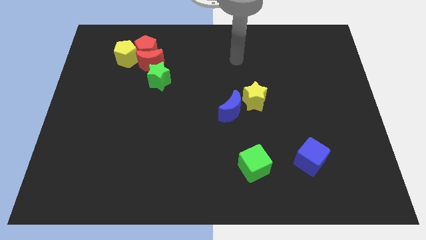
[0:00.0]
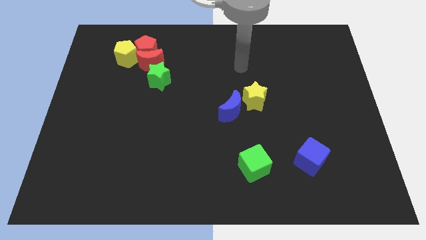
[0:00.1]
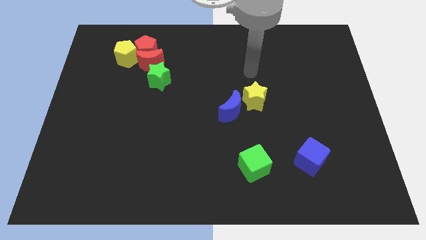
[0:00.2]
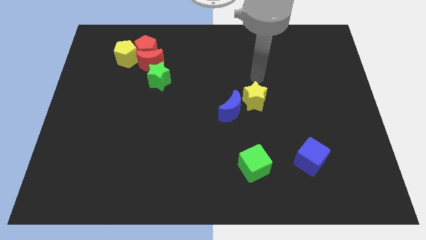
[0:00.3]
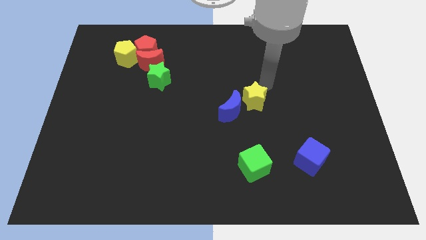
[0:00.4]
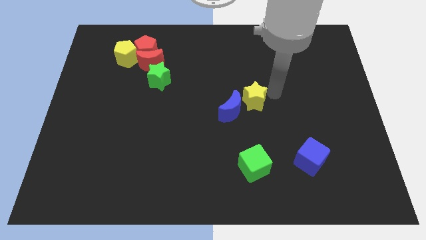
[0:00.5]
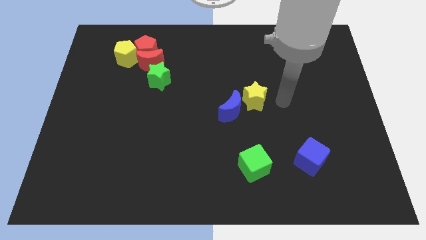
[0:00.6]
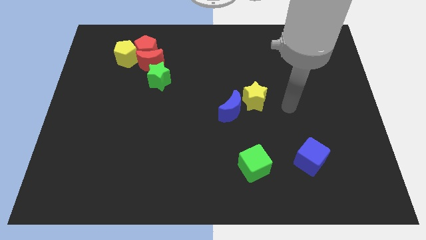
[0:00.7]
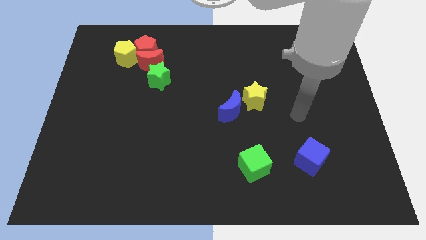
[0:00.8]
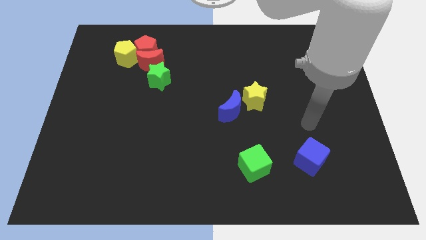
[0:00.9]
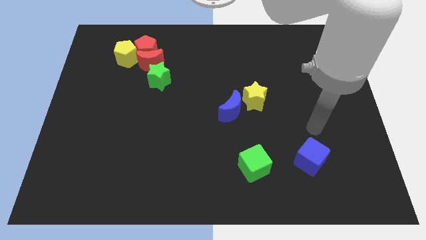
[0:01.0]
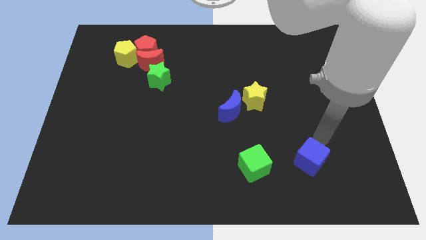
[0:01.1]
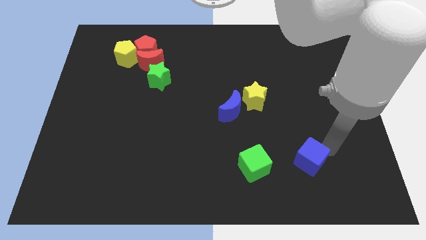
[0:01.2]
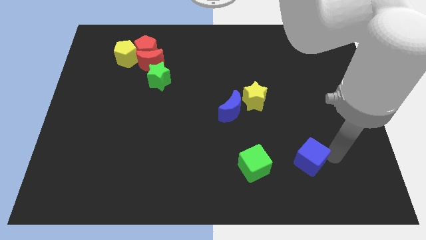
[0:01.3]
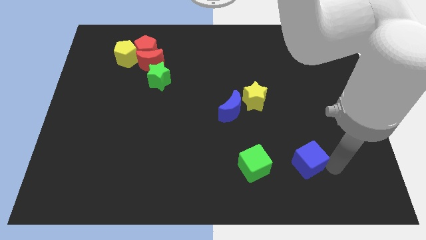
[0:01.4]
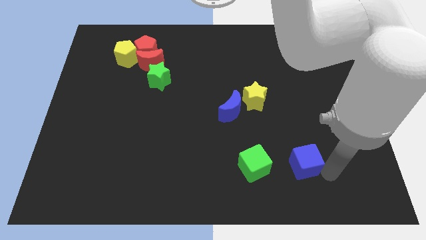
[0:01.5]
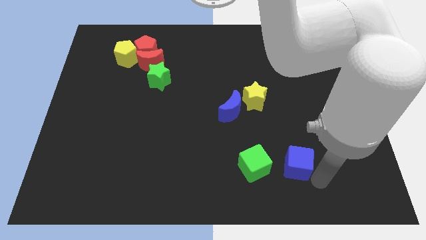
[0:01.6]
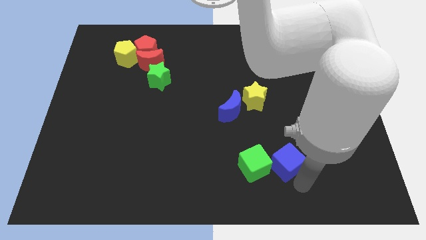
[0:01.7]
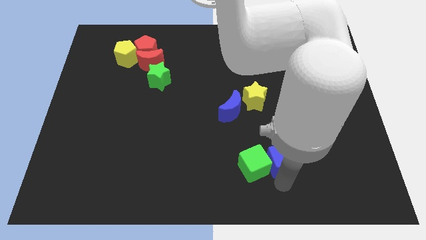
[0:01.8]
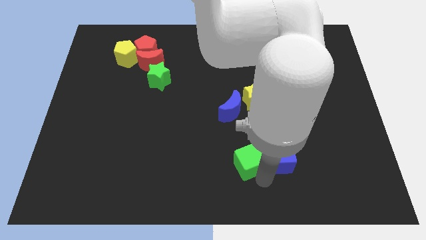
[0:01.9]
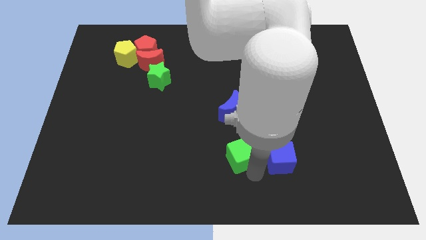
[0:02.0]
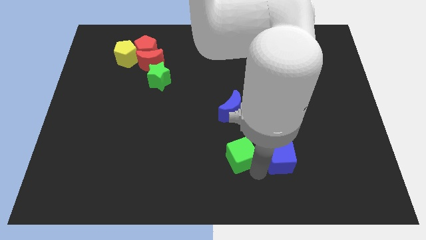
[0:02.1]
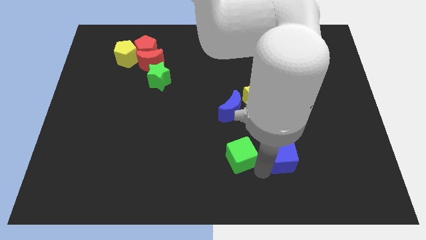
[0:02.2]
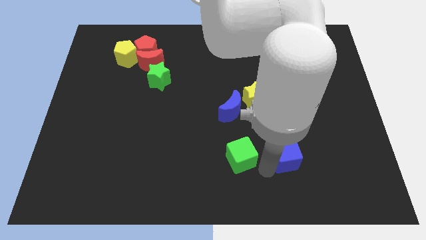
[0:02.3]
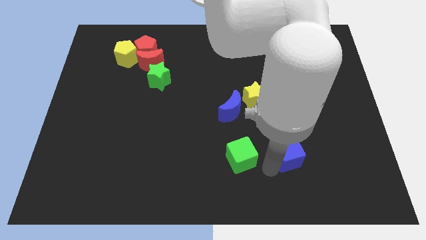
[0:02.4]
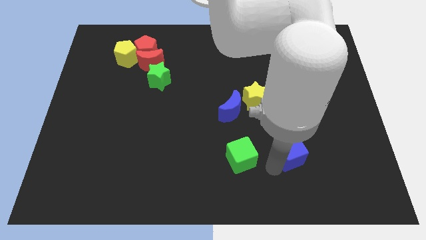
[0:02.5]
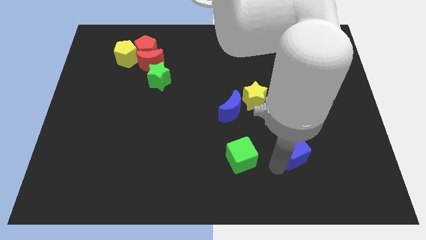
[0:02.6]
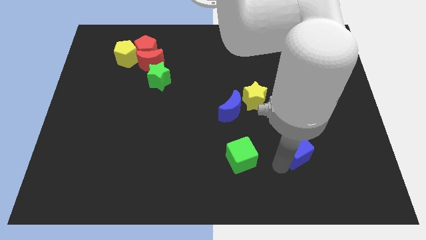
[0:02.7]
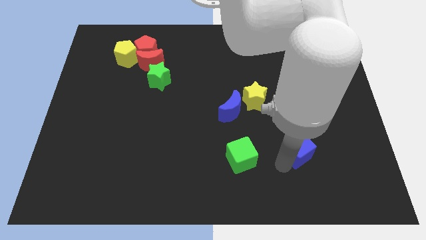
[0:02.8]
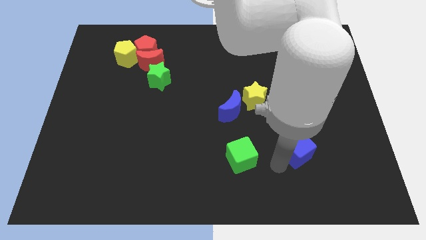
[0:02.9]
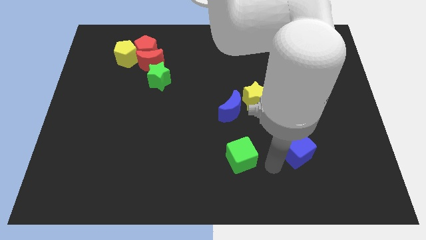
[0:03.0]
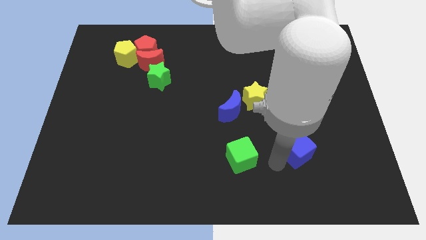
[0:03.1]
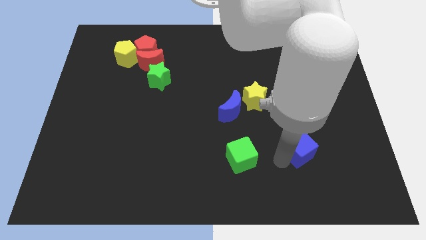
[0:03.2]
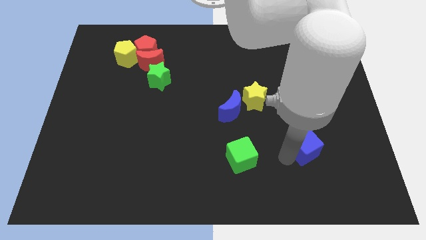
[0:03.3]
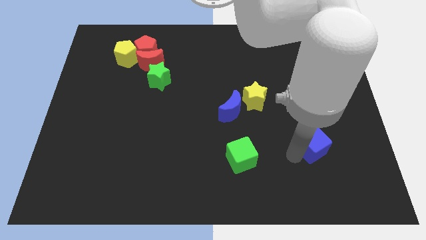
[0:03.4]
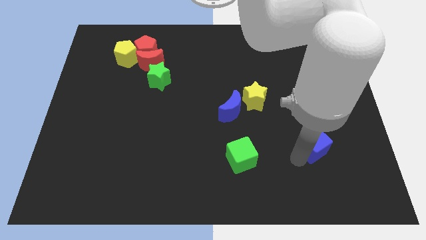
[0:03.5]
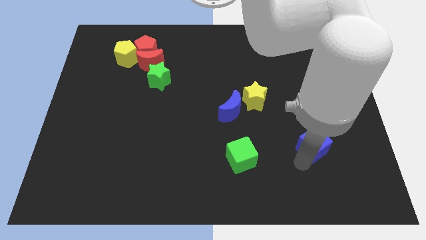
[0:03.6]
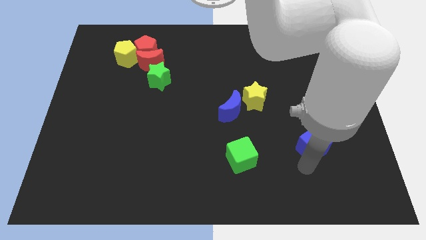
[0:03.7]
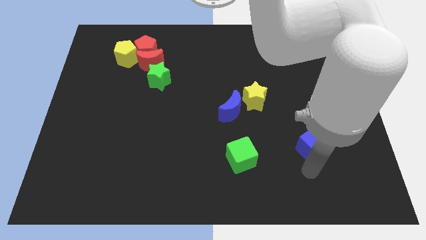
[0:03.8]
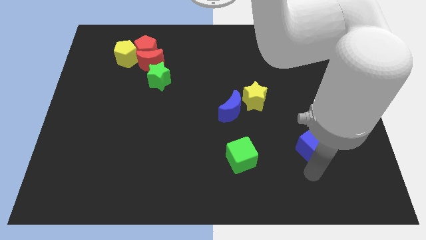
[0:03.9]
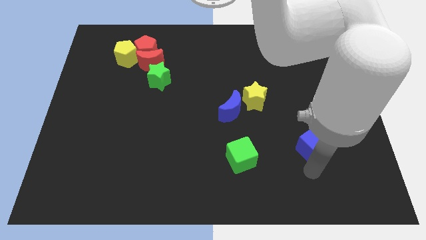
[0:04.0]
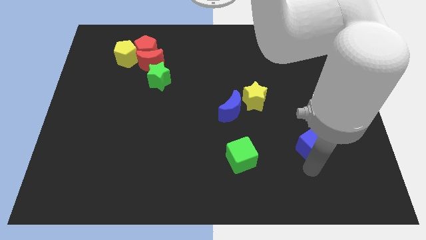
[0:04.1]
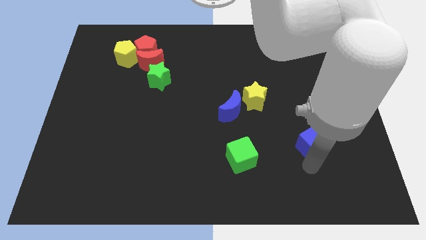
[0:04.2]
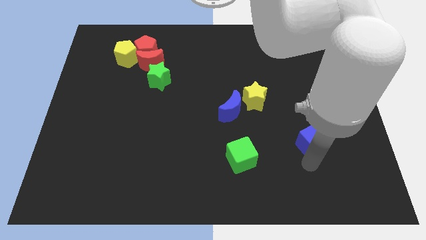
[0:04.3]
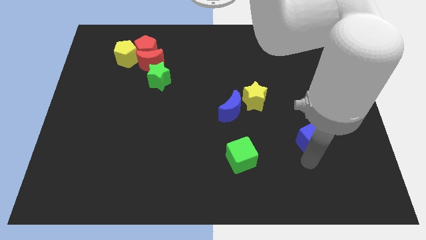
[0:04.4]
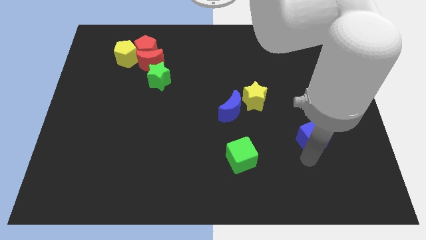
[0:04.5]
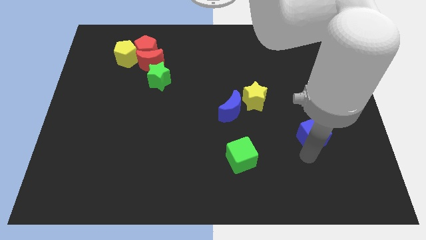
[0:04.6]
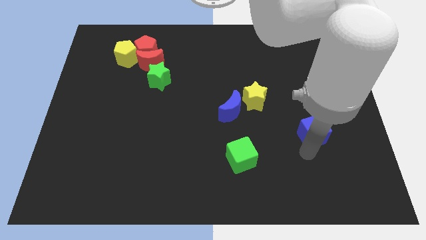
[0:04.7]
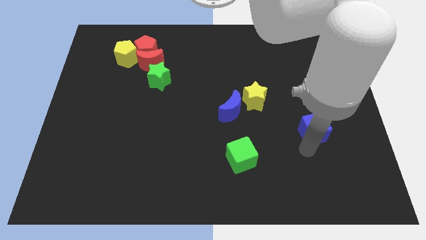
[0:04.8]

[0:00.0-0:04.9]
push the blue cube a little up

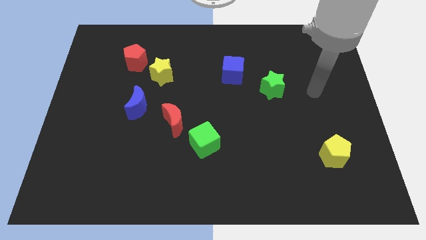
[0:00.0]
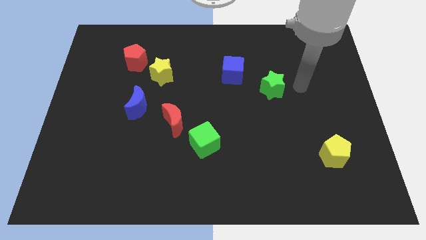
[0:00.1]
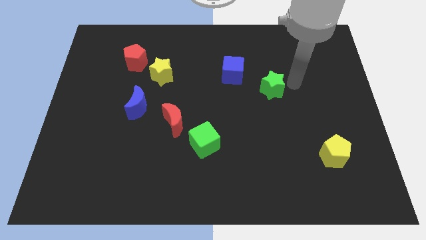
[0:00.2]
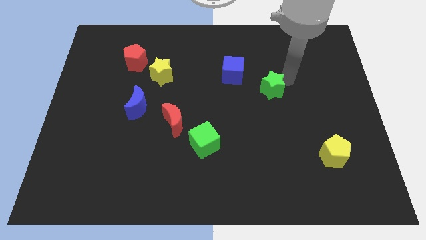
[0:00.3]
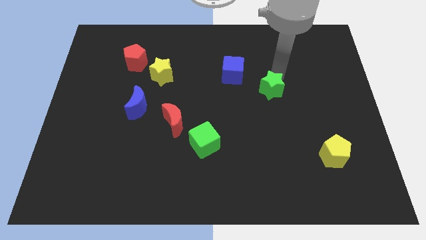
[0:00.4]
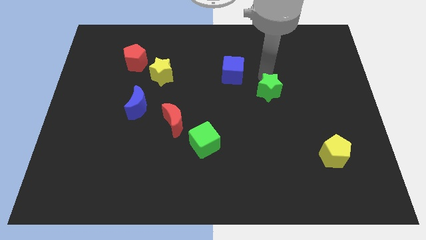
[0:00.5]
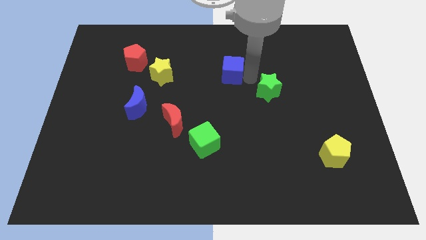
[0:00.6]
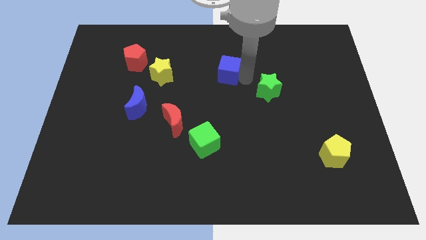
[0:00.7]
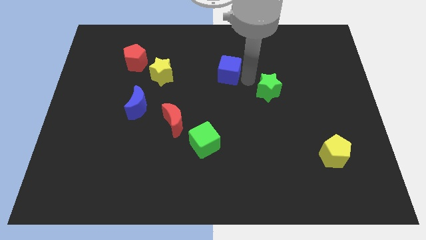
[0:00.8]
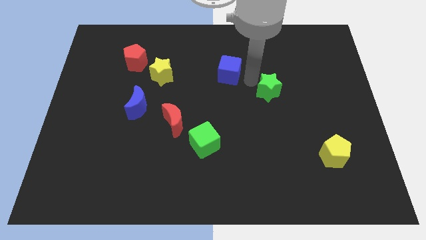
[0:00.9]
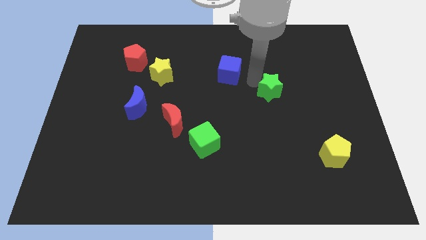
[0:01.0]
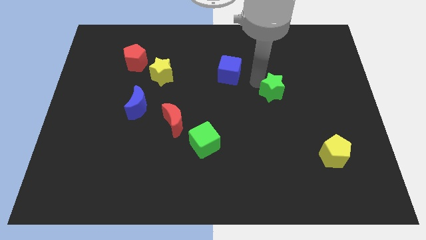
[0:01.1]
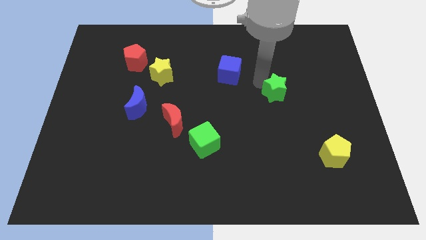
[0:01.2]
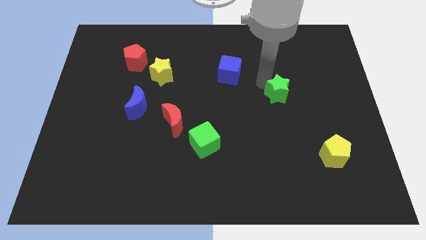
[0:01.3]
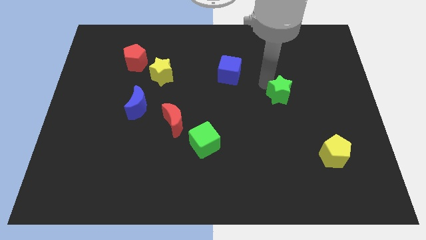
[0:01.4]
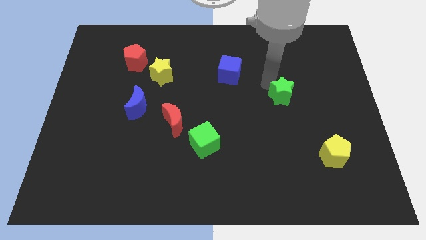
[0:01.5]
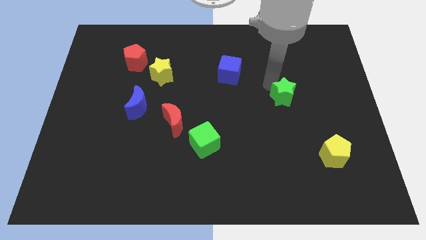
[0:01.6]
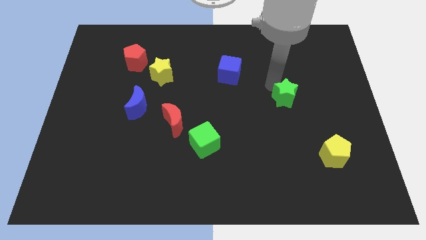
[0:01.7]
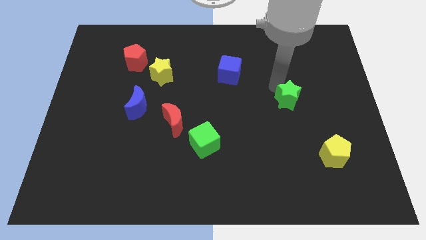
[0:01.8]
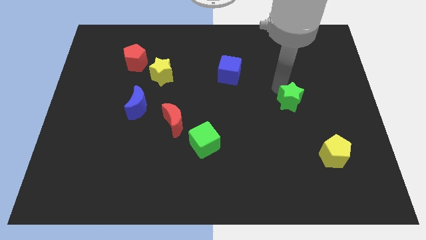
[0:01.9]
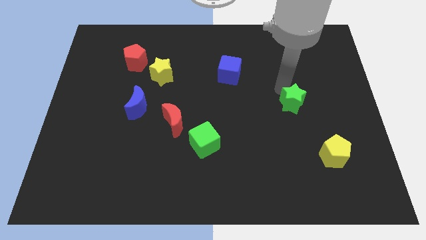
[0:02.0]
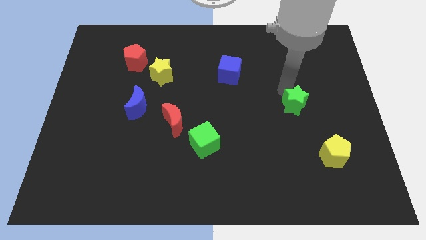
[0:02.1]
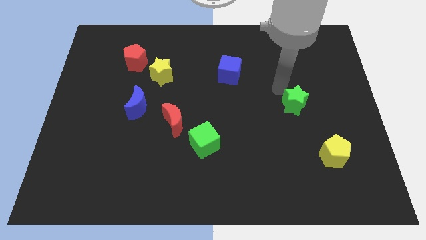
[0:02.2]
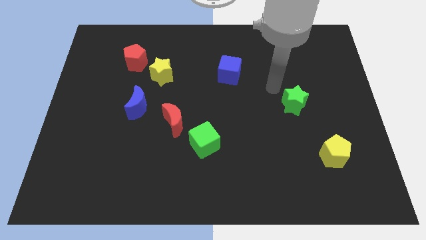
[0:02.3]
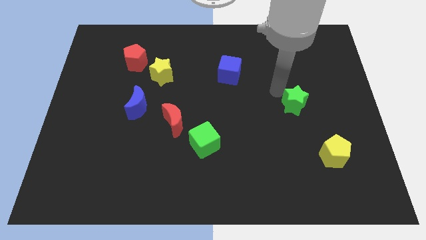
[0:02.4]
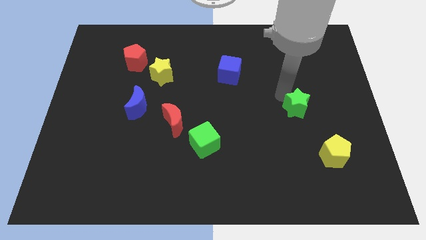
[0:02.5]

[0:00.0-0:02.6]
slide the green star slightly diagonally downwards and to the right

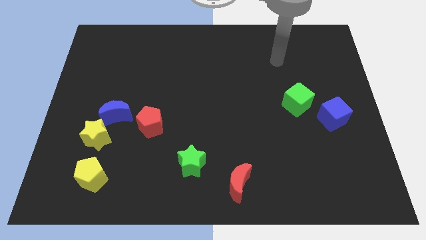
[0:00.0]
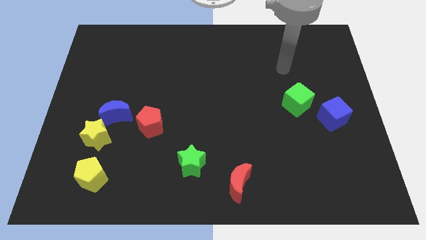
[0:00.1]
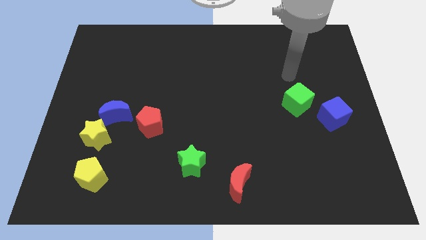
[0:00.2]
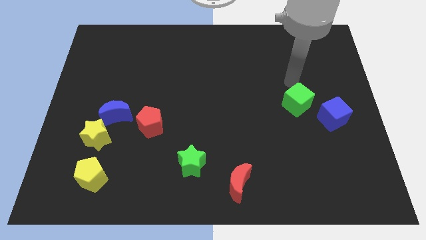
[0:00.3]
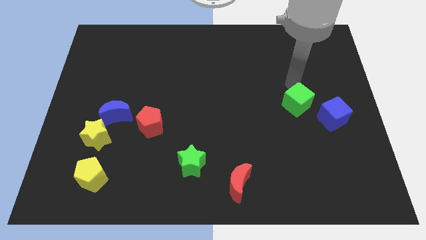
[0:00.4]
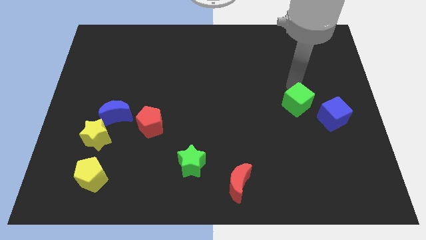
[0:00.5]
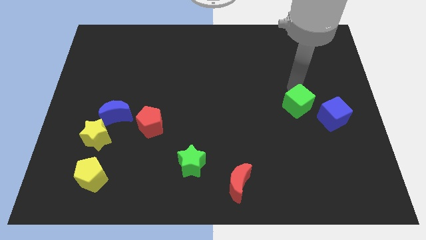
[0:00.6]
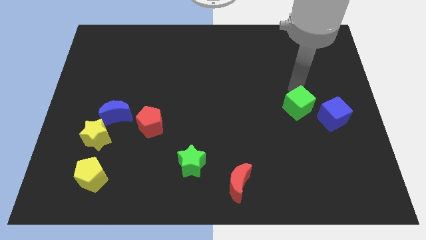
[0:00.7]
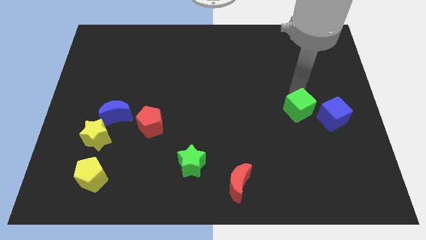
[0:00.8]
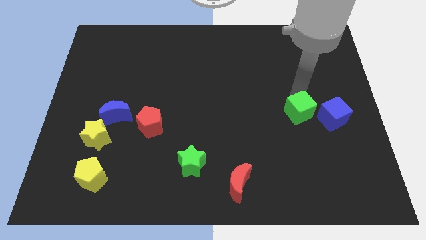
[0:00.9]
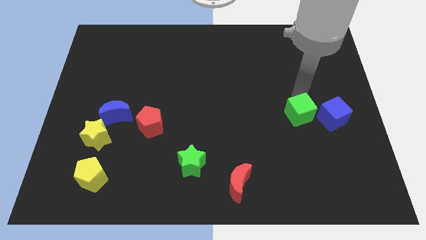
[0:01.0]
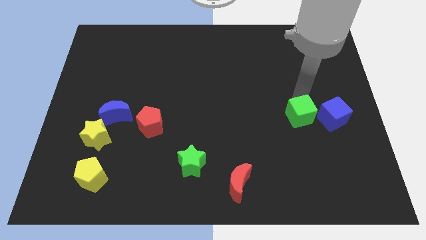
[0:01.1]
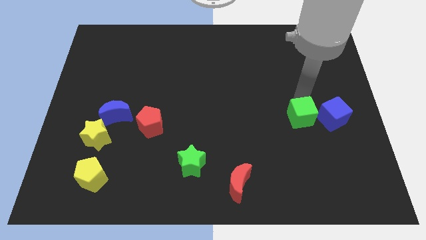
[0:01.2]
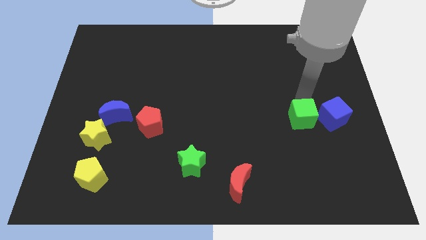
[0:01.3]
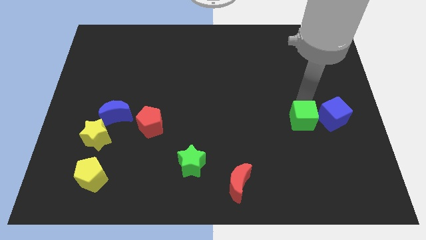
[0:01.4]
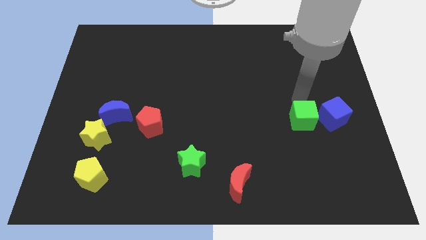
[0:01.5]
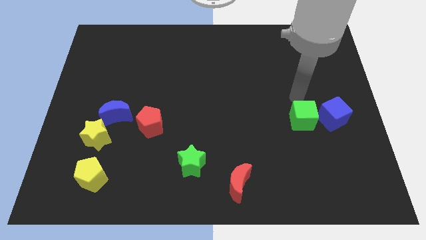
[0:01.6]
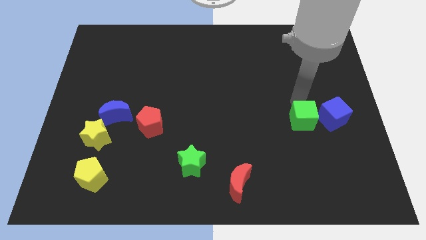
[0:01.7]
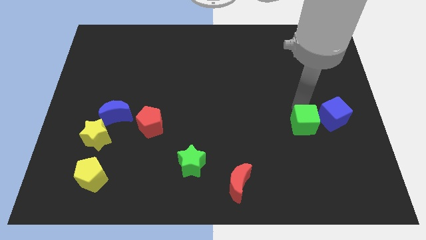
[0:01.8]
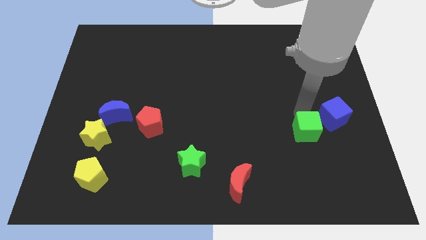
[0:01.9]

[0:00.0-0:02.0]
move the green cube somewhat down
